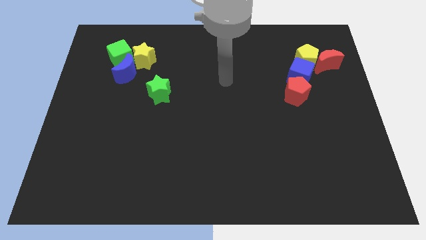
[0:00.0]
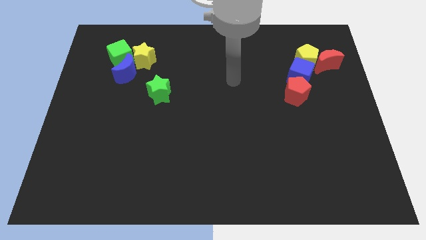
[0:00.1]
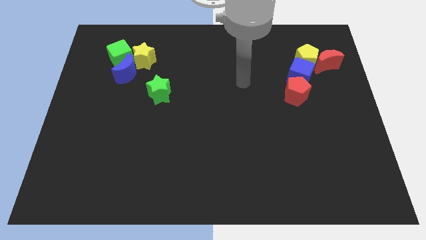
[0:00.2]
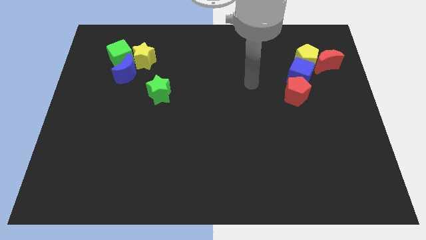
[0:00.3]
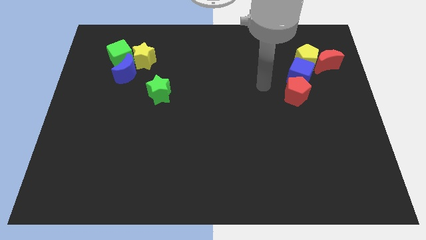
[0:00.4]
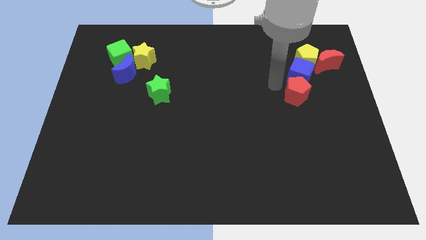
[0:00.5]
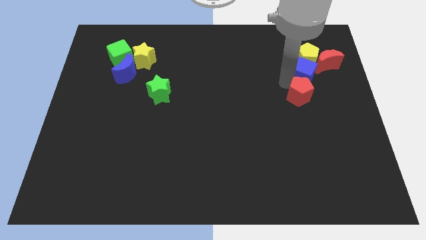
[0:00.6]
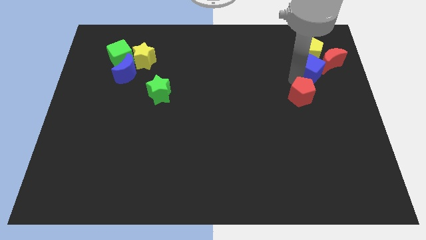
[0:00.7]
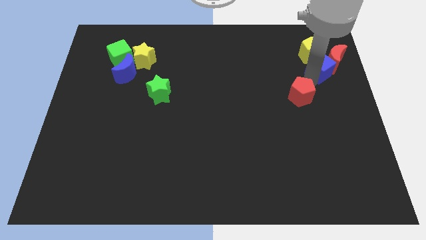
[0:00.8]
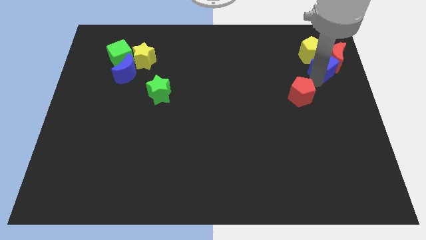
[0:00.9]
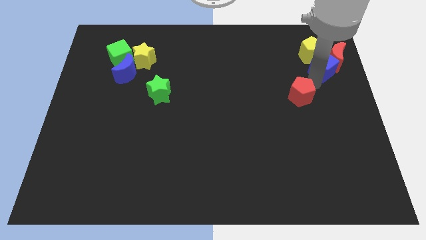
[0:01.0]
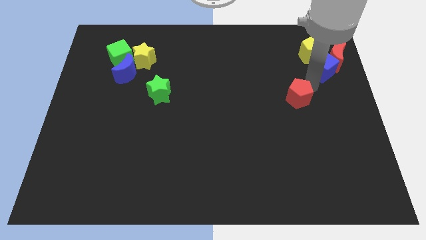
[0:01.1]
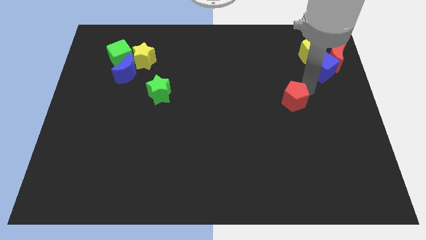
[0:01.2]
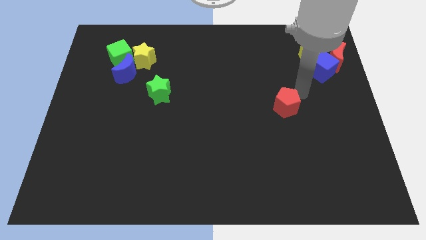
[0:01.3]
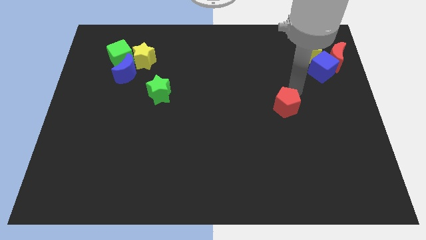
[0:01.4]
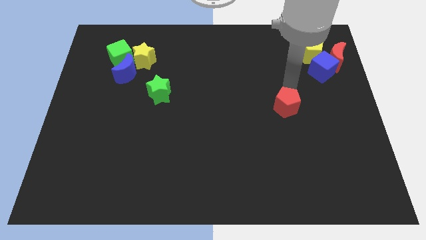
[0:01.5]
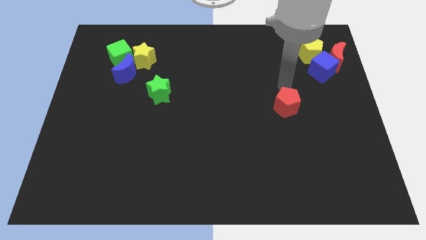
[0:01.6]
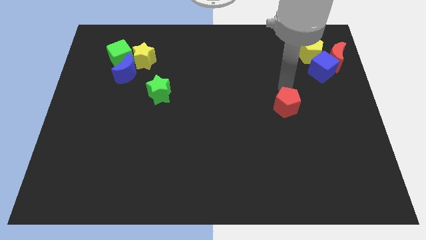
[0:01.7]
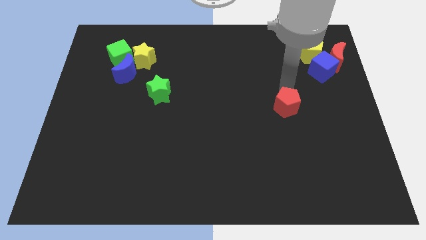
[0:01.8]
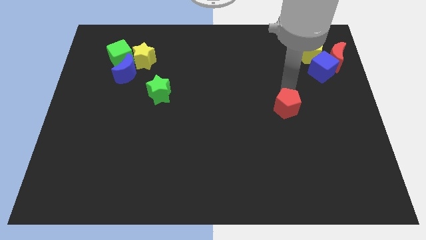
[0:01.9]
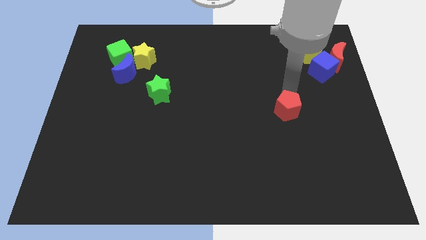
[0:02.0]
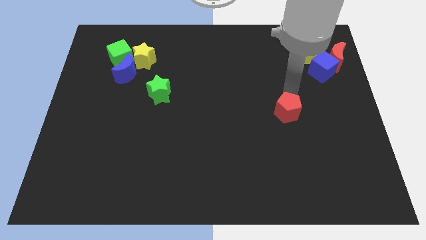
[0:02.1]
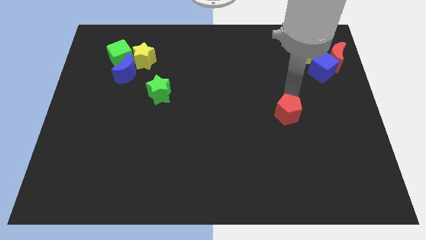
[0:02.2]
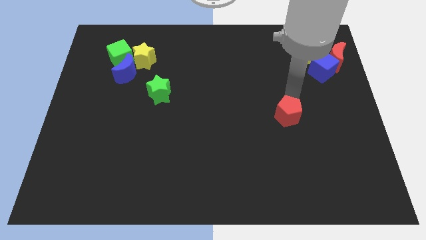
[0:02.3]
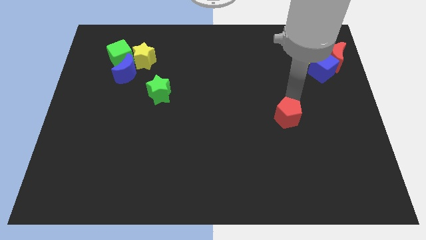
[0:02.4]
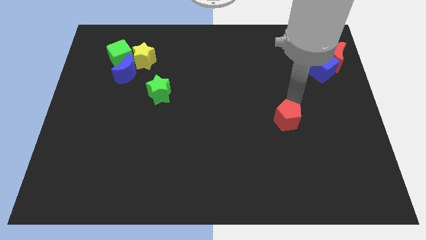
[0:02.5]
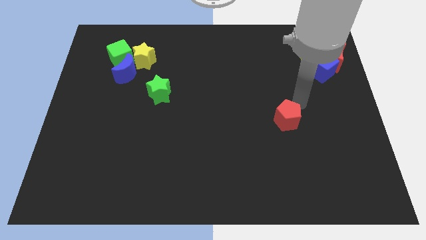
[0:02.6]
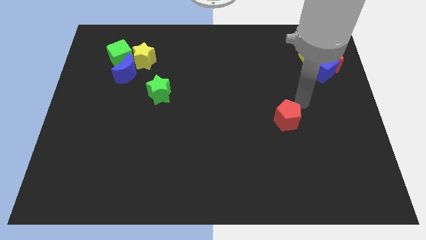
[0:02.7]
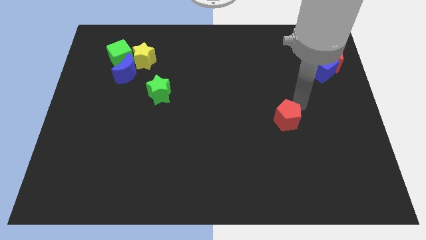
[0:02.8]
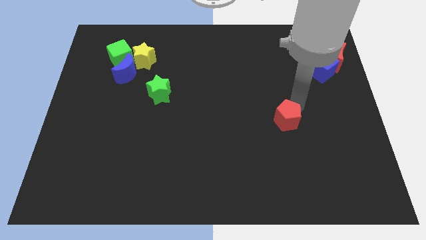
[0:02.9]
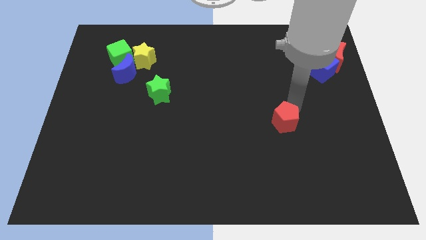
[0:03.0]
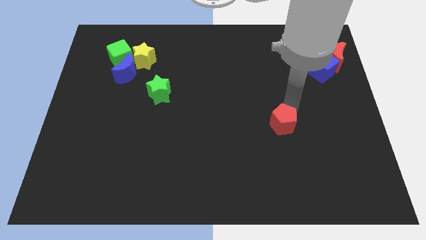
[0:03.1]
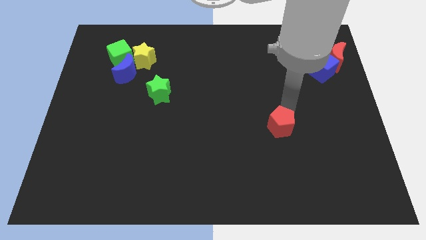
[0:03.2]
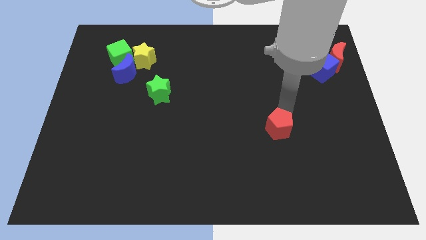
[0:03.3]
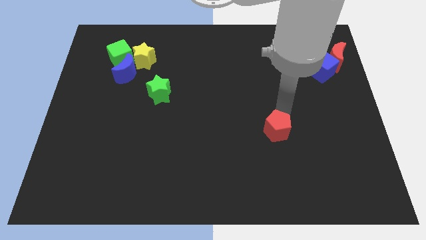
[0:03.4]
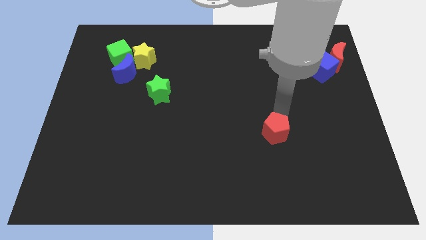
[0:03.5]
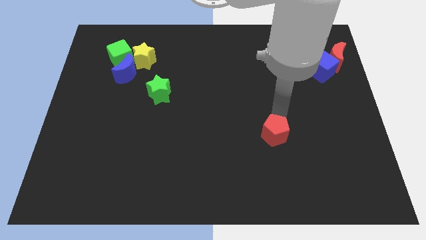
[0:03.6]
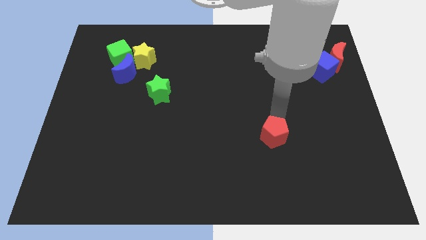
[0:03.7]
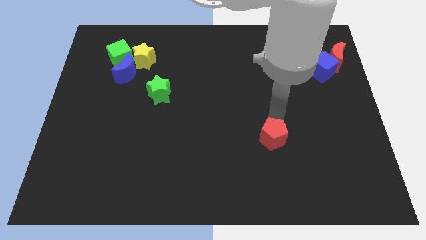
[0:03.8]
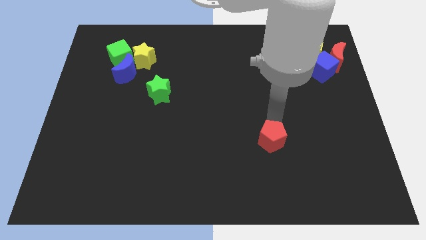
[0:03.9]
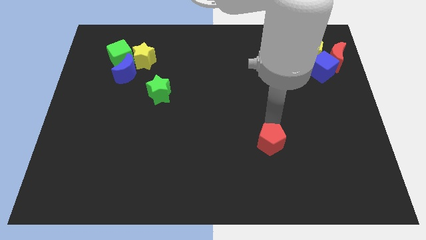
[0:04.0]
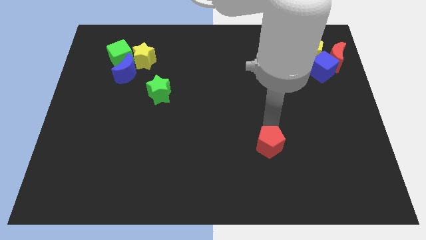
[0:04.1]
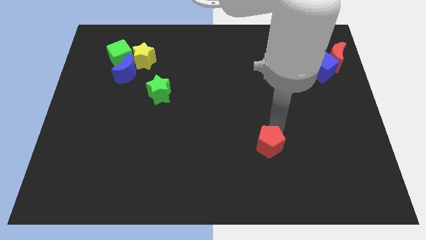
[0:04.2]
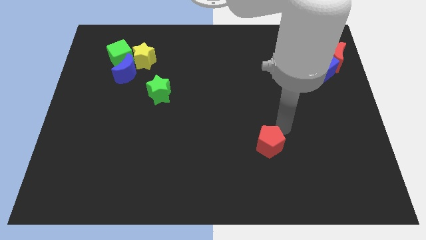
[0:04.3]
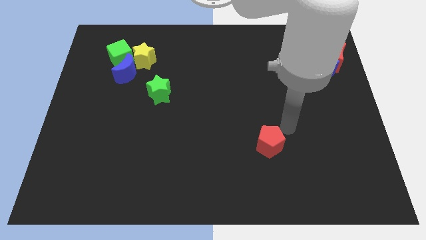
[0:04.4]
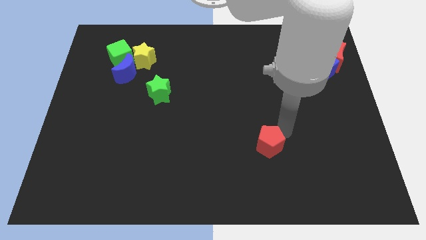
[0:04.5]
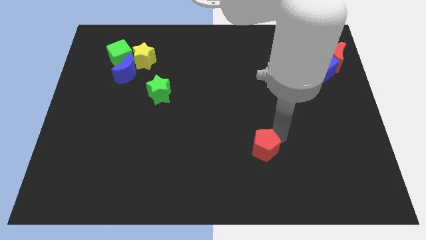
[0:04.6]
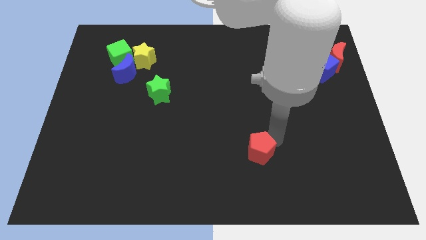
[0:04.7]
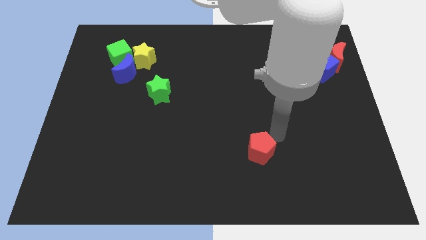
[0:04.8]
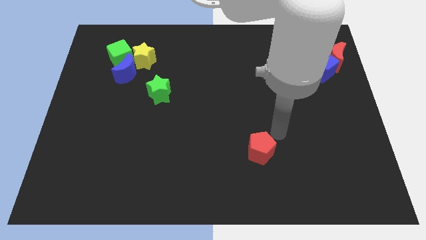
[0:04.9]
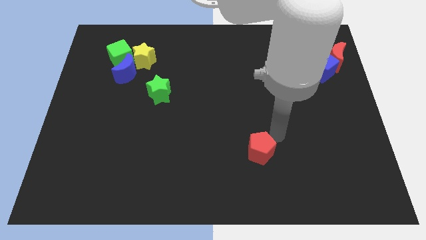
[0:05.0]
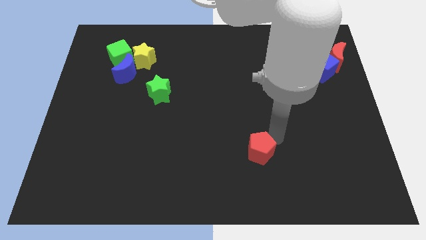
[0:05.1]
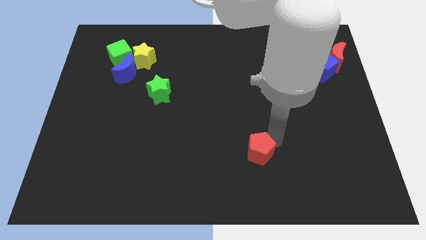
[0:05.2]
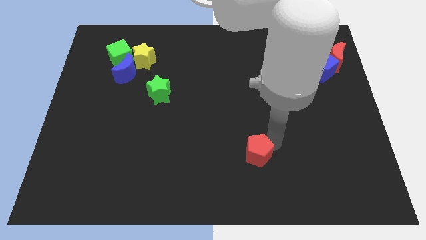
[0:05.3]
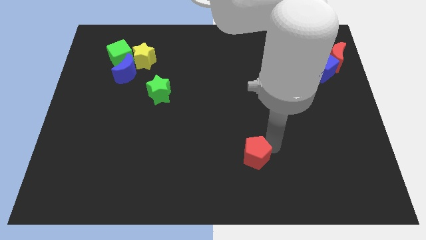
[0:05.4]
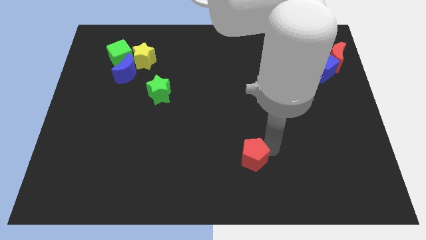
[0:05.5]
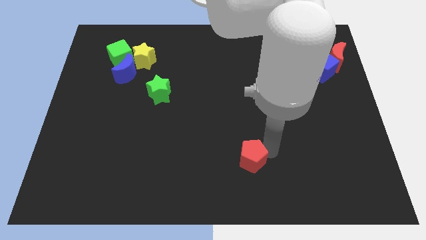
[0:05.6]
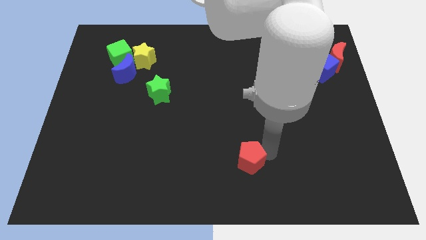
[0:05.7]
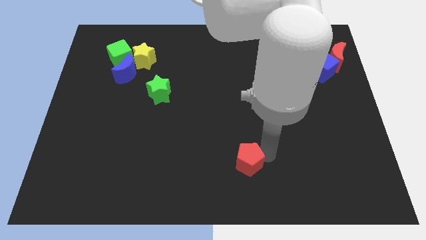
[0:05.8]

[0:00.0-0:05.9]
put the red pentagon to the bottom side

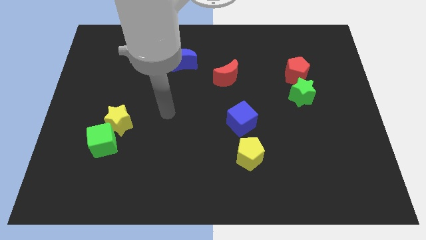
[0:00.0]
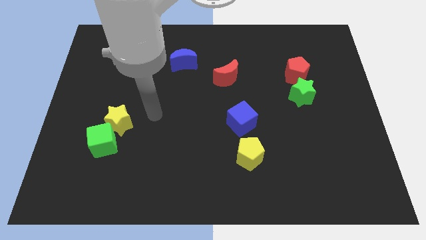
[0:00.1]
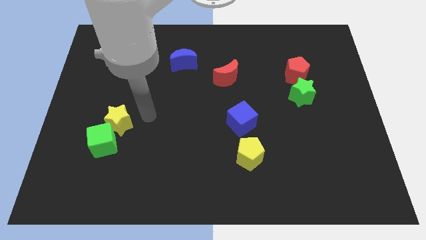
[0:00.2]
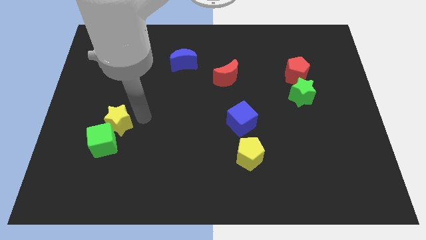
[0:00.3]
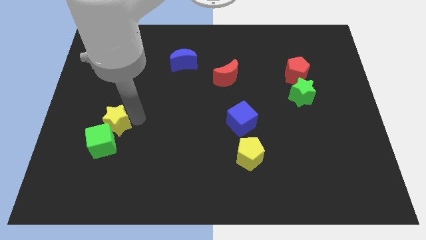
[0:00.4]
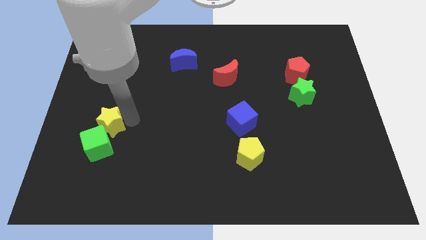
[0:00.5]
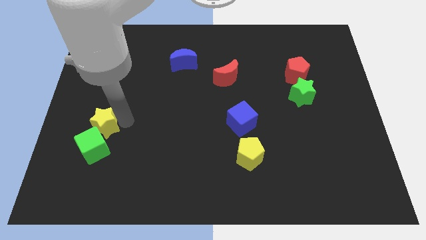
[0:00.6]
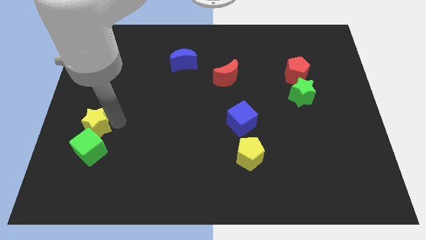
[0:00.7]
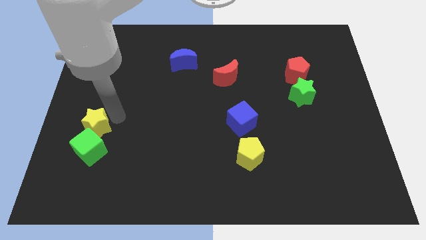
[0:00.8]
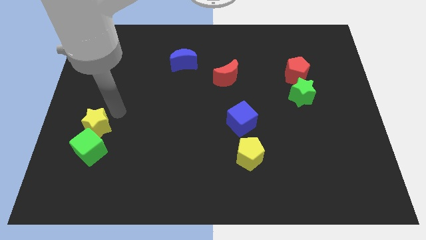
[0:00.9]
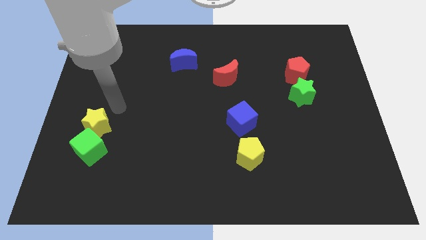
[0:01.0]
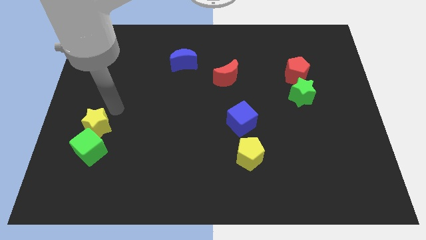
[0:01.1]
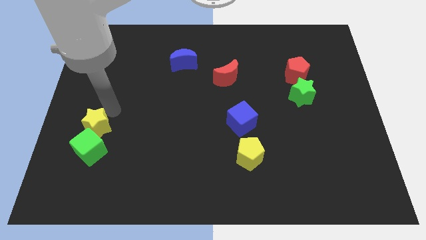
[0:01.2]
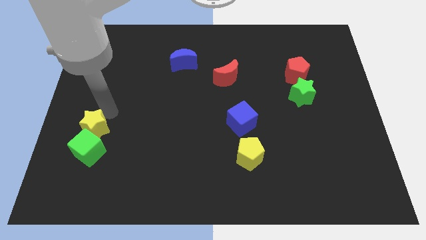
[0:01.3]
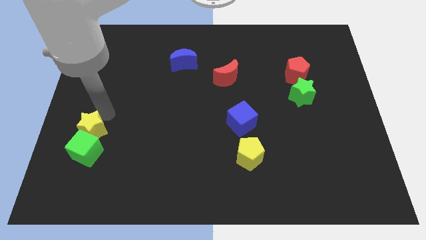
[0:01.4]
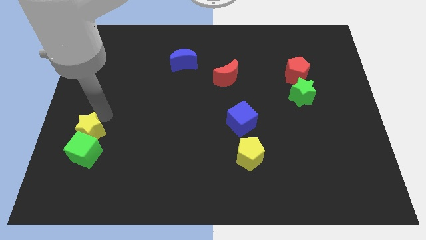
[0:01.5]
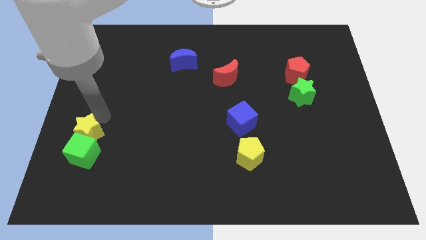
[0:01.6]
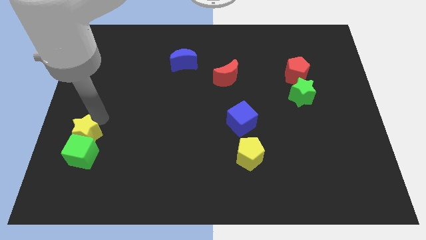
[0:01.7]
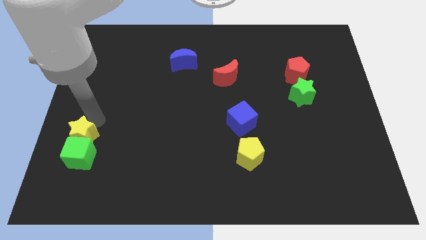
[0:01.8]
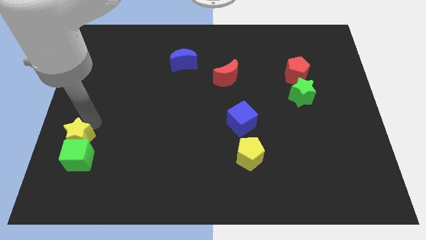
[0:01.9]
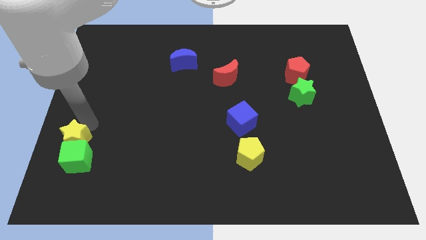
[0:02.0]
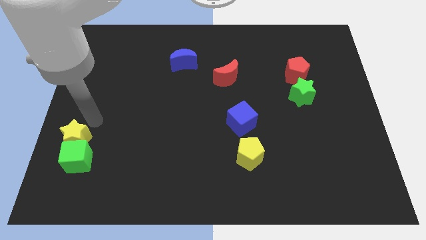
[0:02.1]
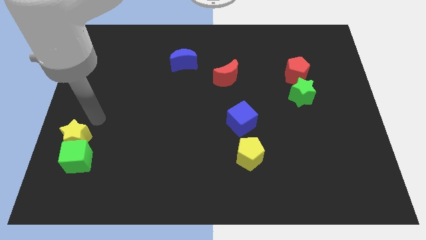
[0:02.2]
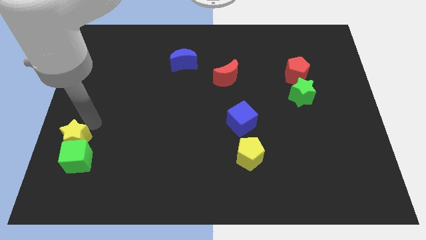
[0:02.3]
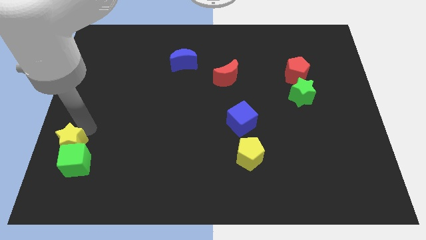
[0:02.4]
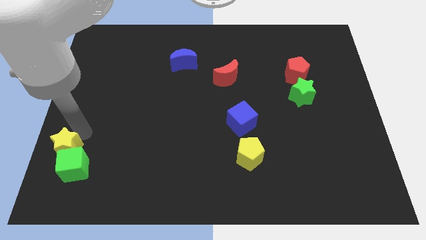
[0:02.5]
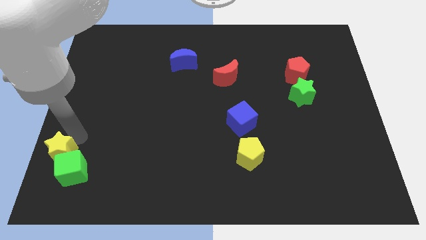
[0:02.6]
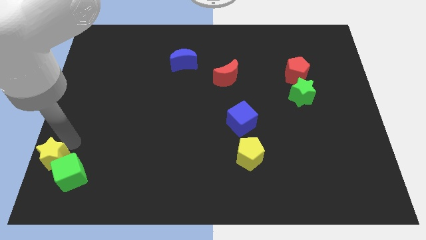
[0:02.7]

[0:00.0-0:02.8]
push the yellow star to the bottom left corner
